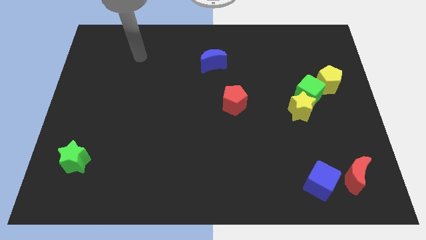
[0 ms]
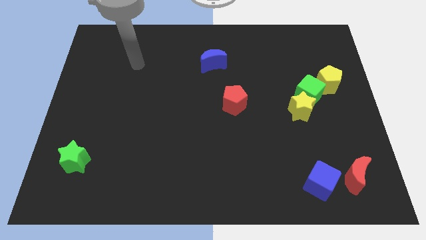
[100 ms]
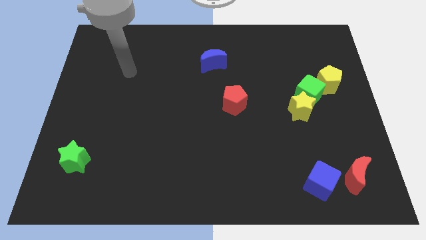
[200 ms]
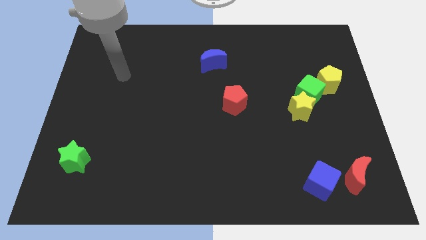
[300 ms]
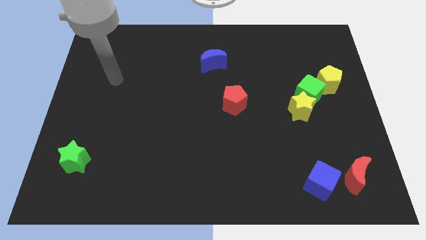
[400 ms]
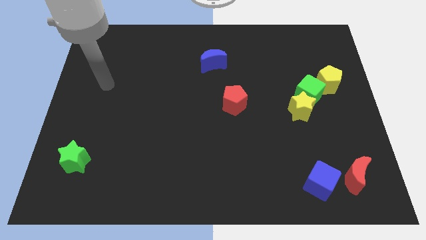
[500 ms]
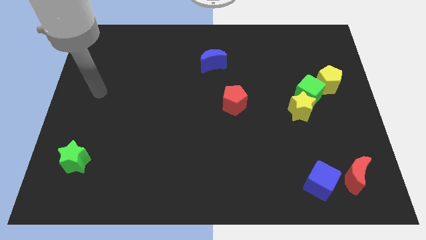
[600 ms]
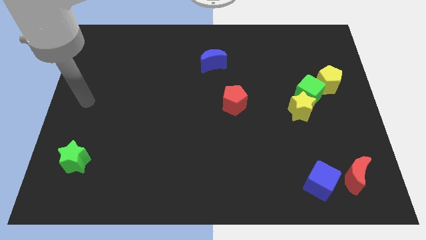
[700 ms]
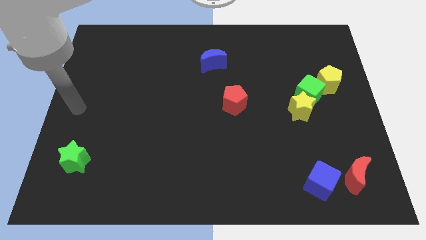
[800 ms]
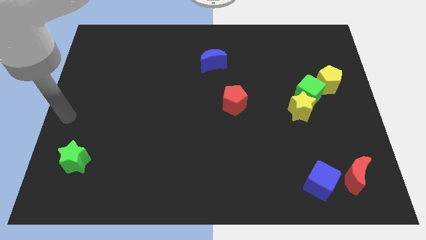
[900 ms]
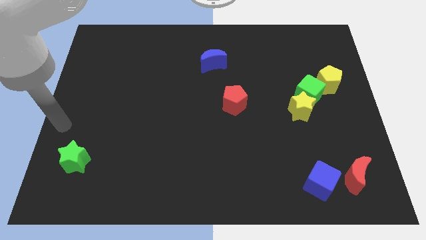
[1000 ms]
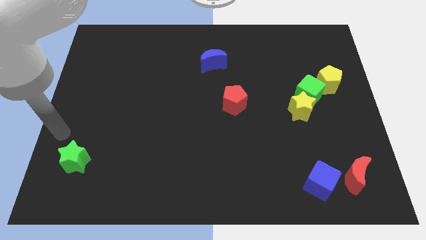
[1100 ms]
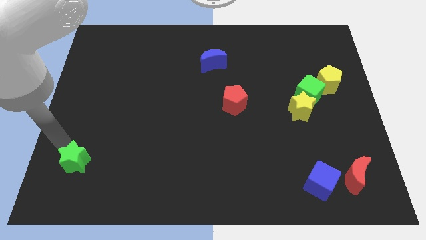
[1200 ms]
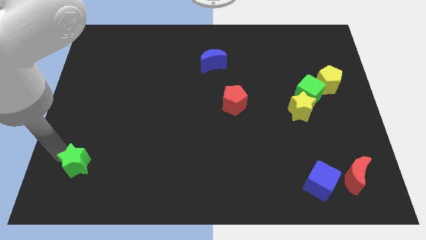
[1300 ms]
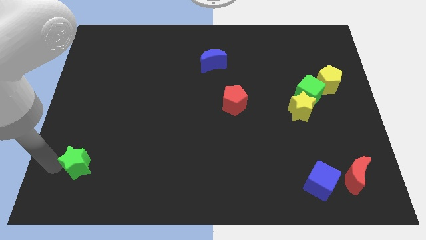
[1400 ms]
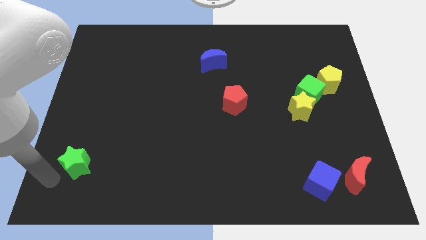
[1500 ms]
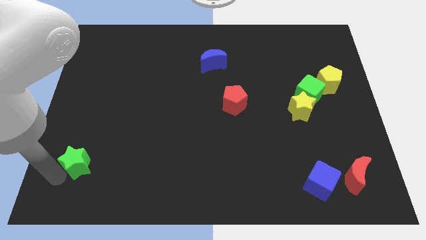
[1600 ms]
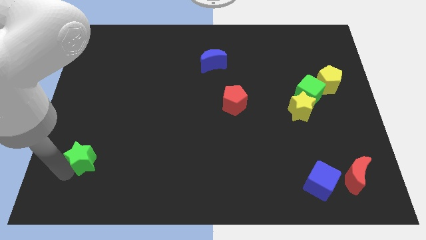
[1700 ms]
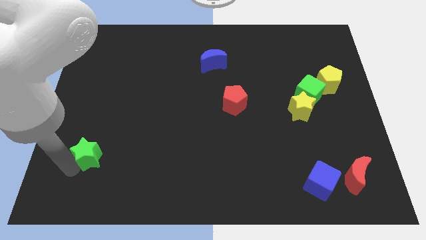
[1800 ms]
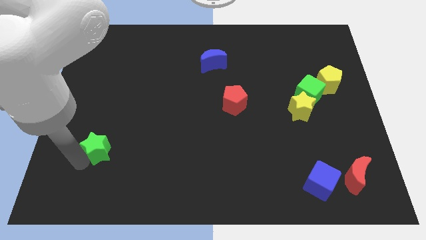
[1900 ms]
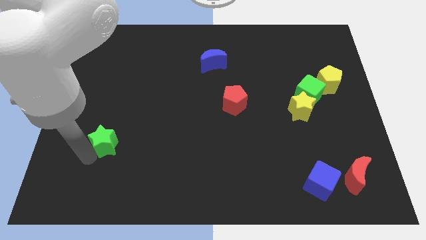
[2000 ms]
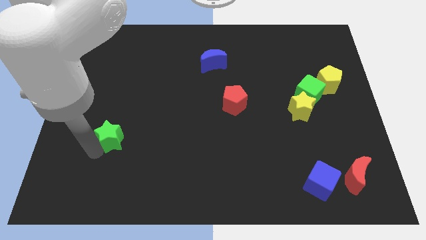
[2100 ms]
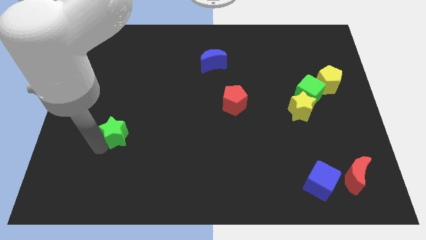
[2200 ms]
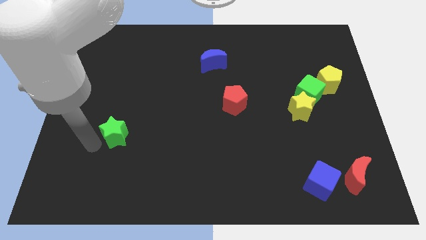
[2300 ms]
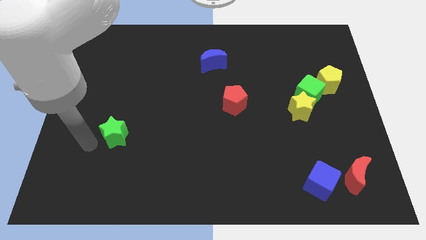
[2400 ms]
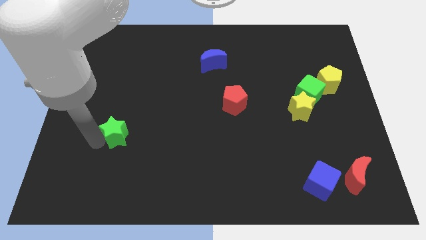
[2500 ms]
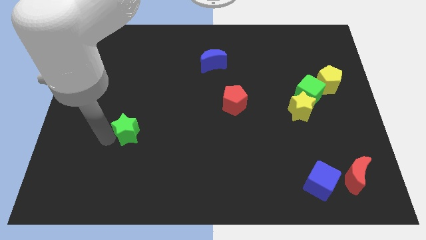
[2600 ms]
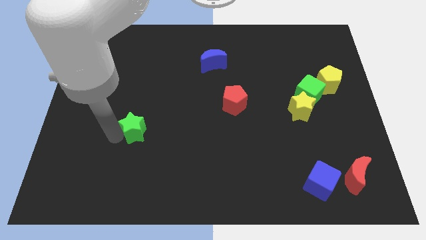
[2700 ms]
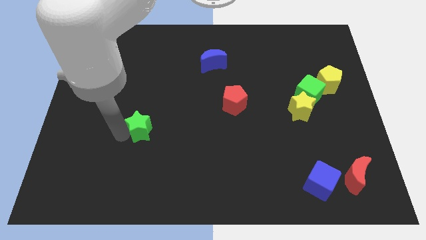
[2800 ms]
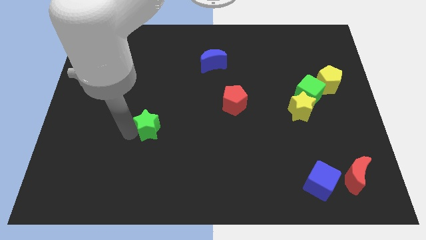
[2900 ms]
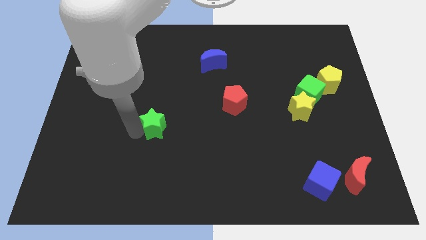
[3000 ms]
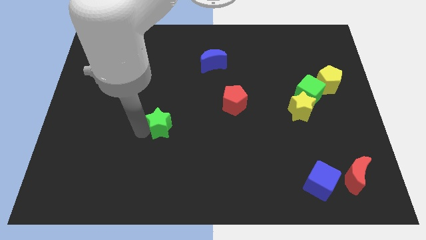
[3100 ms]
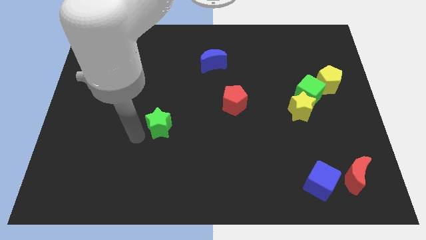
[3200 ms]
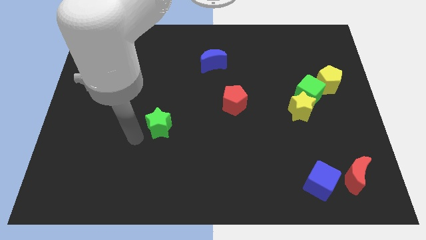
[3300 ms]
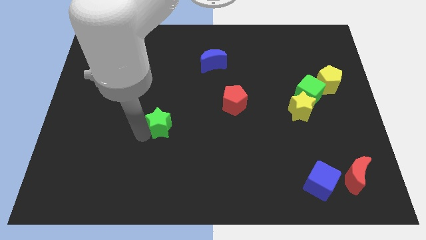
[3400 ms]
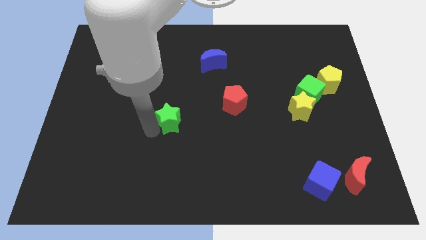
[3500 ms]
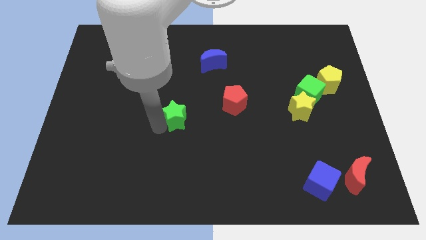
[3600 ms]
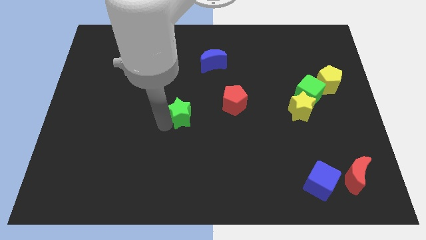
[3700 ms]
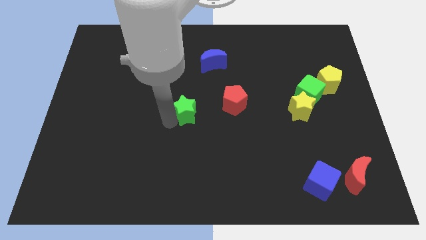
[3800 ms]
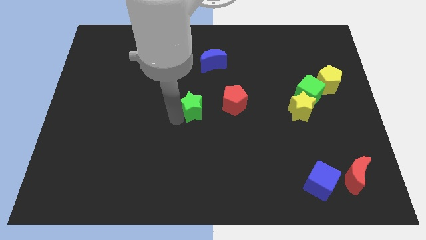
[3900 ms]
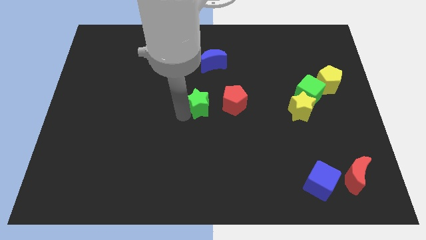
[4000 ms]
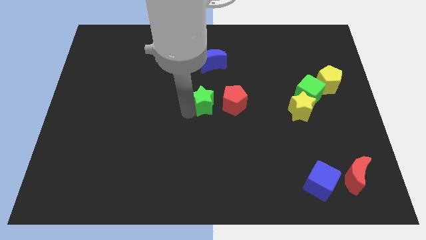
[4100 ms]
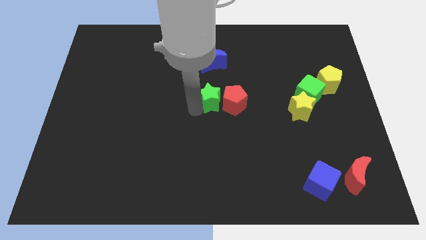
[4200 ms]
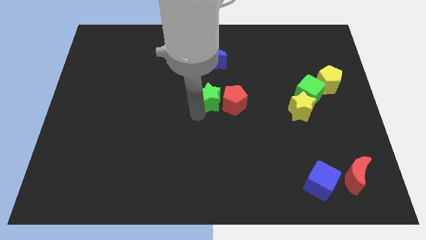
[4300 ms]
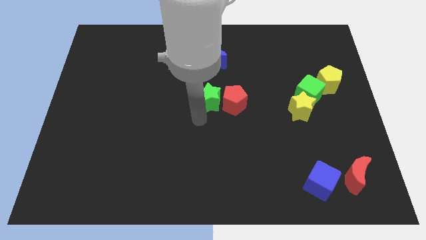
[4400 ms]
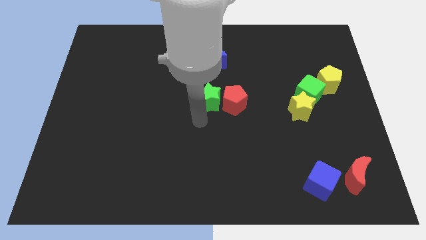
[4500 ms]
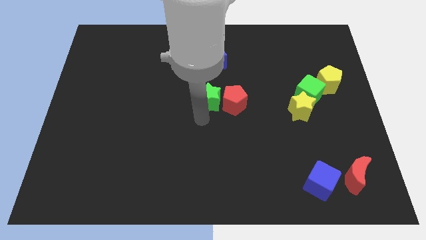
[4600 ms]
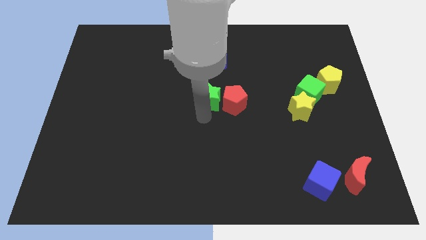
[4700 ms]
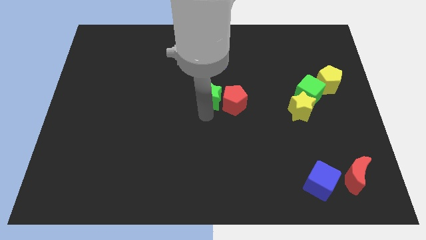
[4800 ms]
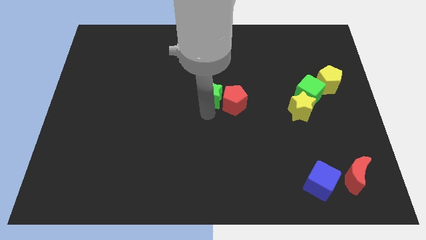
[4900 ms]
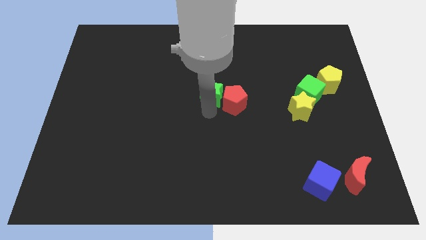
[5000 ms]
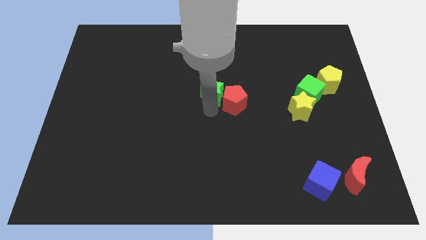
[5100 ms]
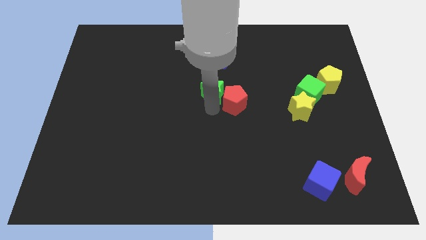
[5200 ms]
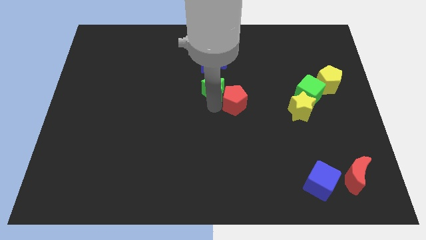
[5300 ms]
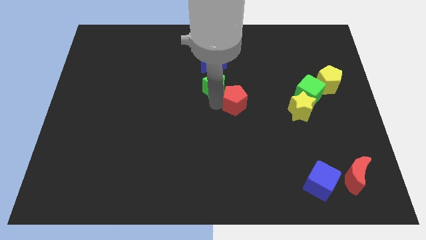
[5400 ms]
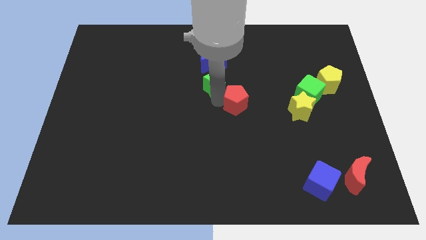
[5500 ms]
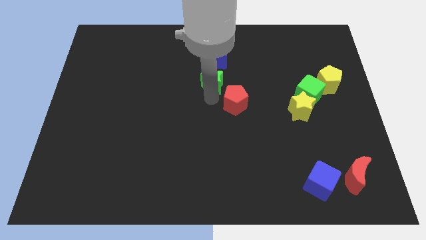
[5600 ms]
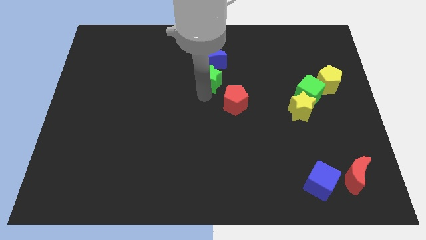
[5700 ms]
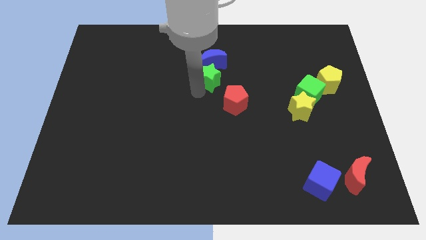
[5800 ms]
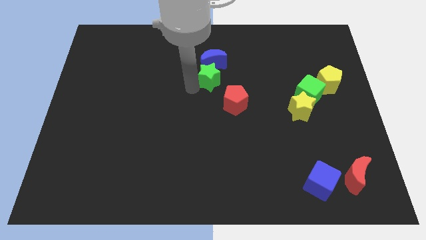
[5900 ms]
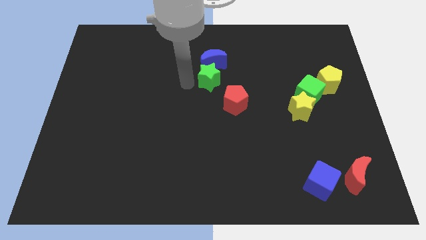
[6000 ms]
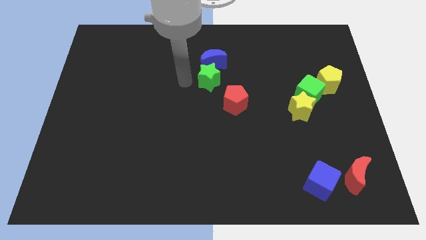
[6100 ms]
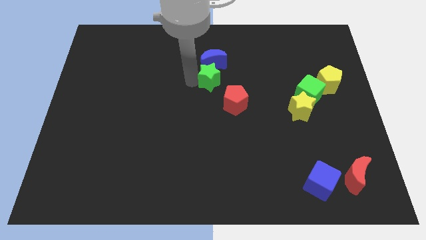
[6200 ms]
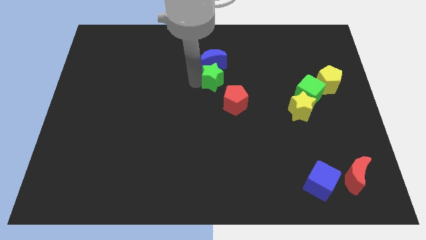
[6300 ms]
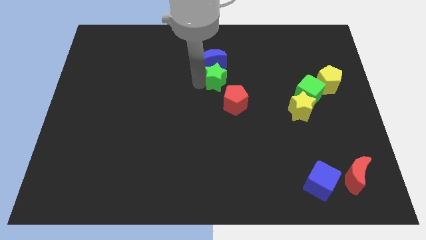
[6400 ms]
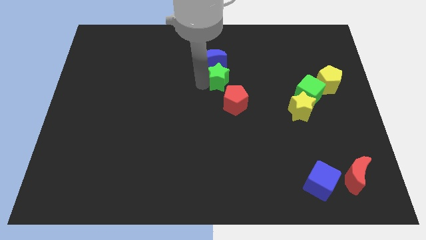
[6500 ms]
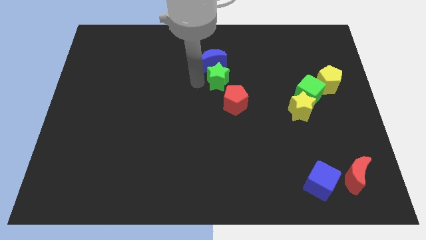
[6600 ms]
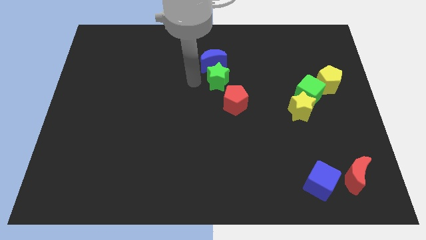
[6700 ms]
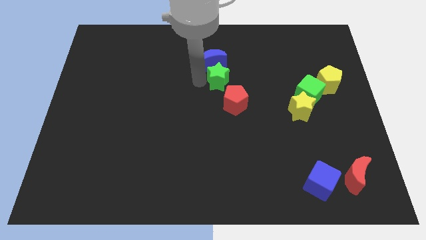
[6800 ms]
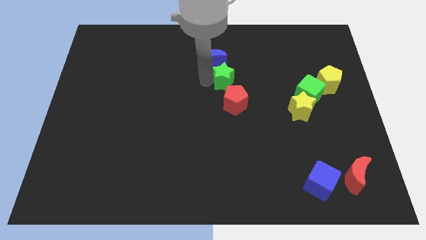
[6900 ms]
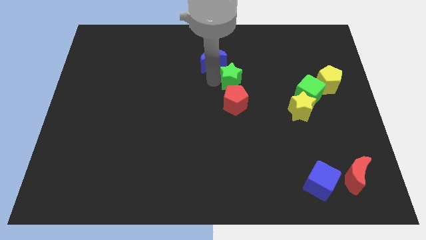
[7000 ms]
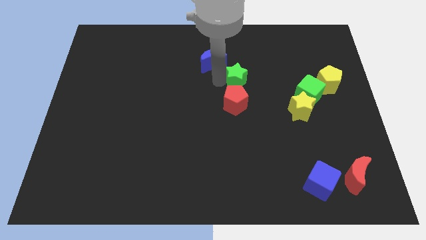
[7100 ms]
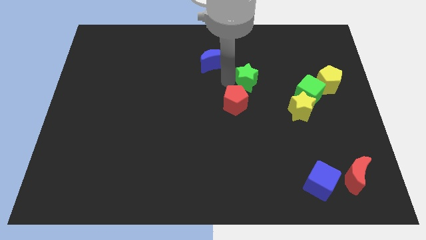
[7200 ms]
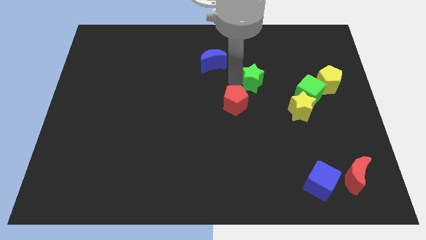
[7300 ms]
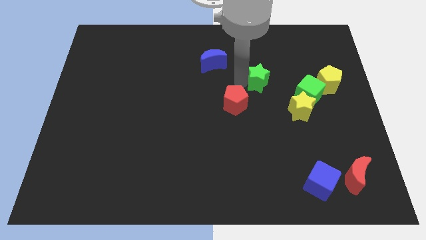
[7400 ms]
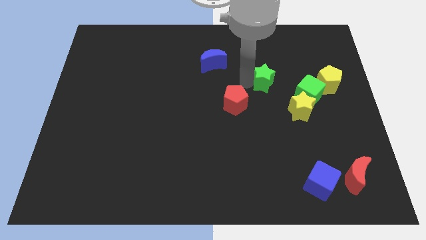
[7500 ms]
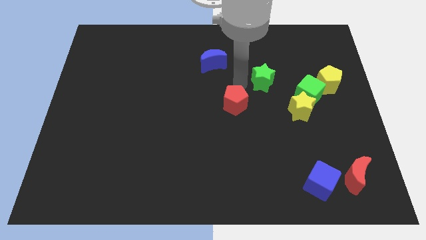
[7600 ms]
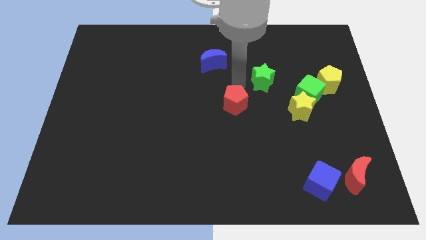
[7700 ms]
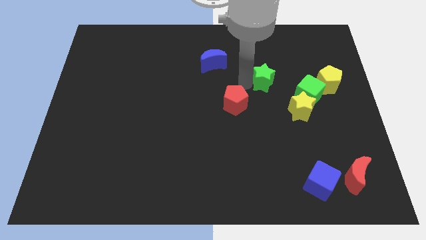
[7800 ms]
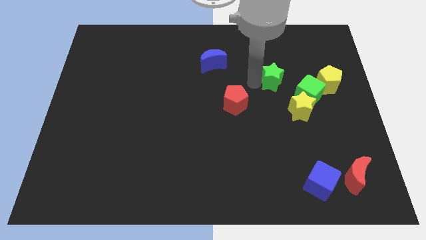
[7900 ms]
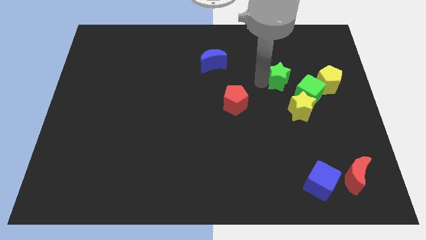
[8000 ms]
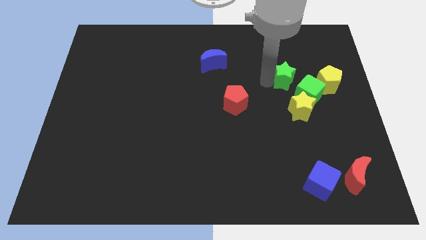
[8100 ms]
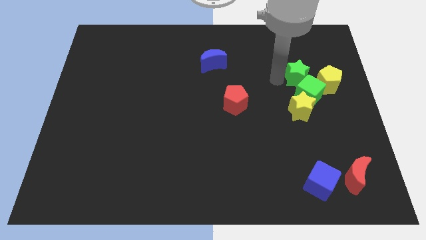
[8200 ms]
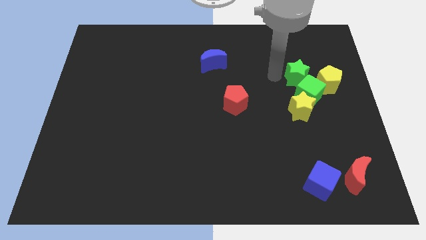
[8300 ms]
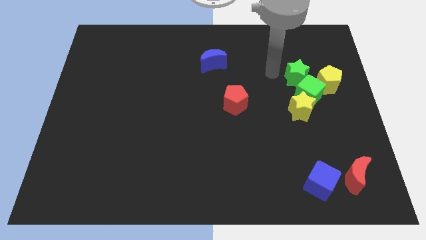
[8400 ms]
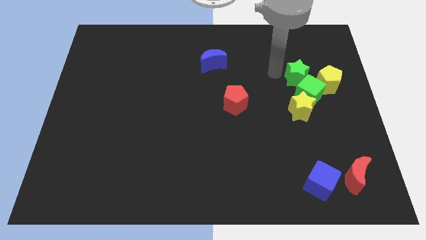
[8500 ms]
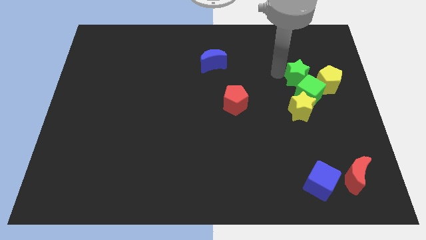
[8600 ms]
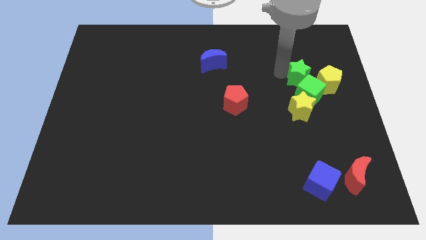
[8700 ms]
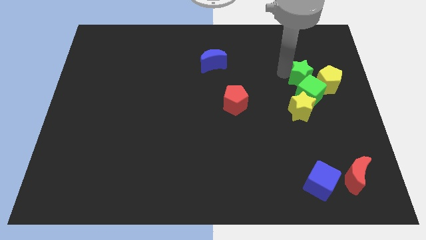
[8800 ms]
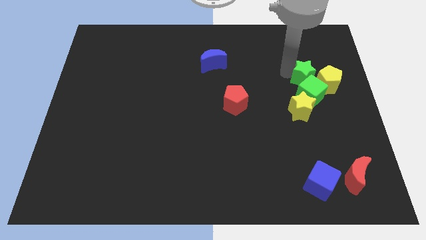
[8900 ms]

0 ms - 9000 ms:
push the green star close to the yellow pentagon
